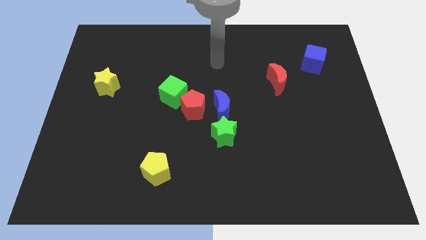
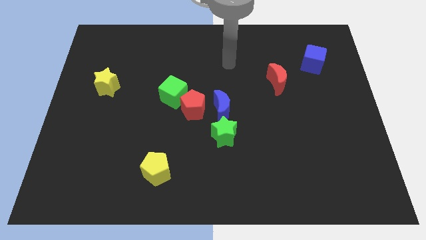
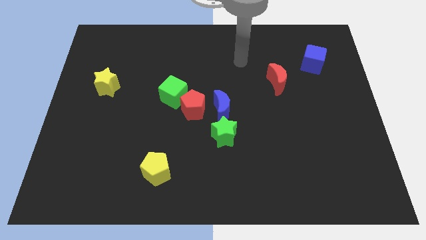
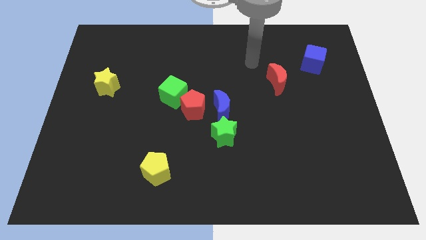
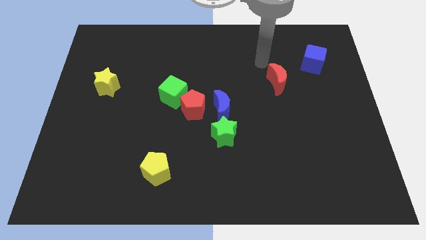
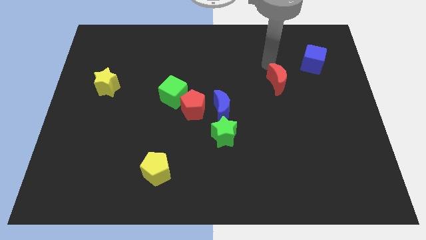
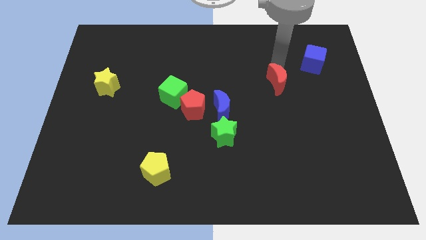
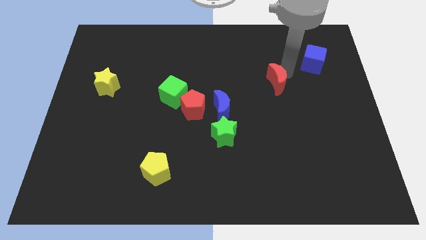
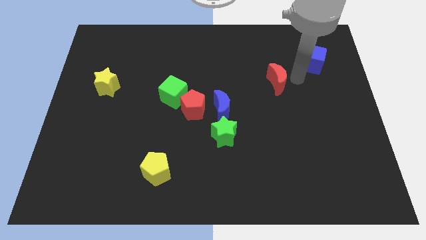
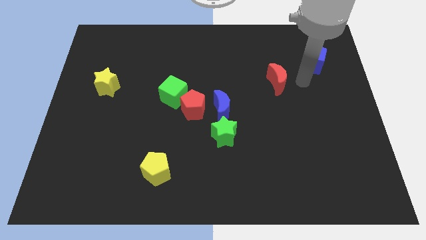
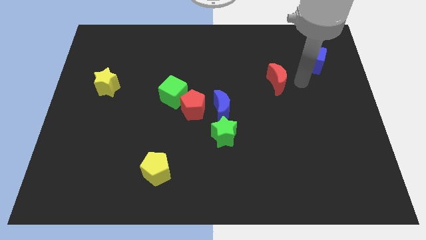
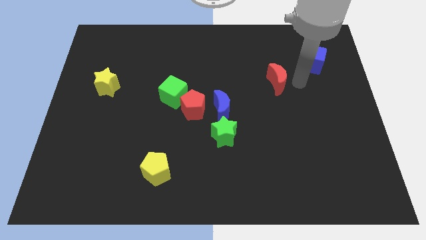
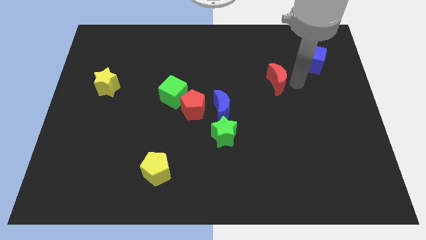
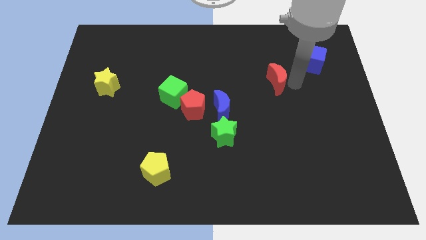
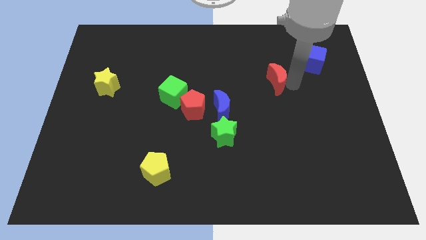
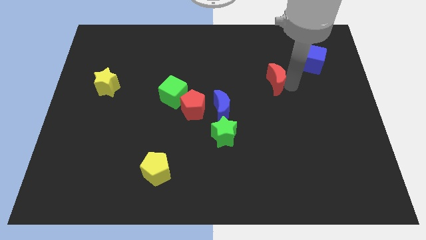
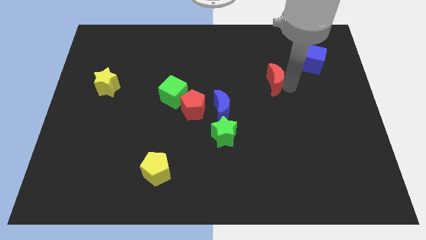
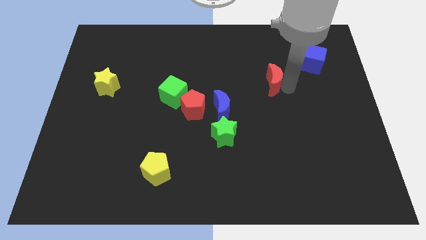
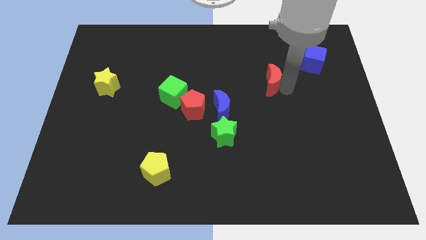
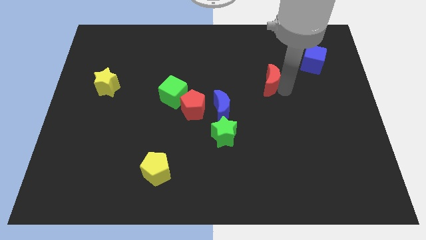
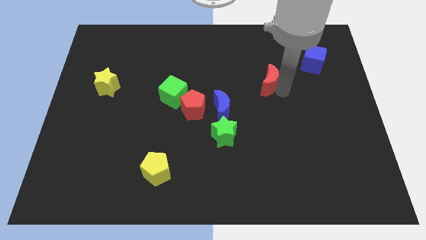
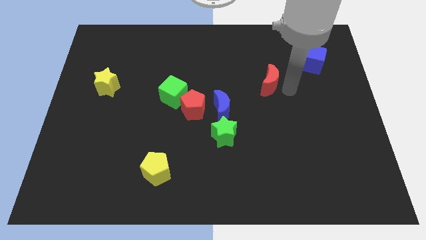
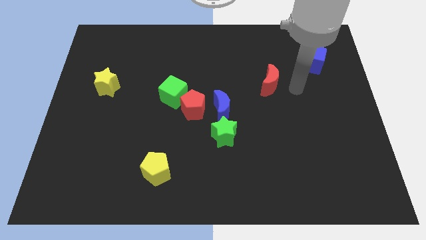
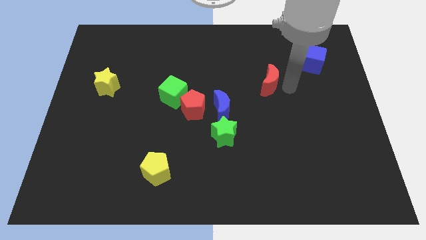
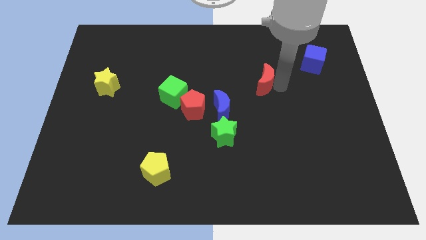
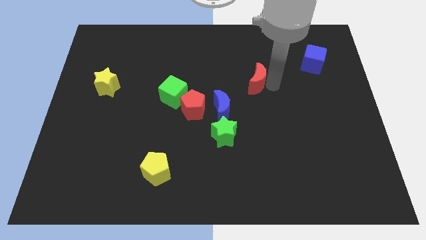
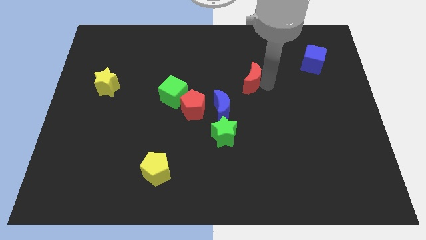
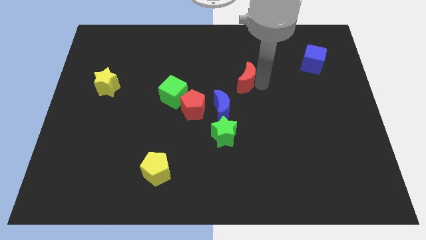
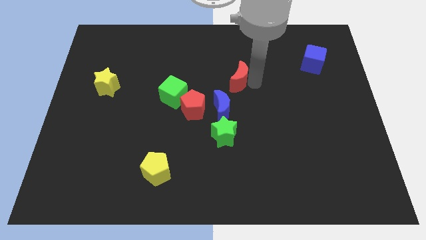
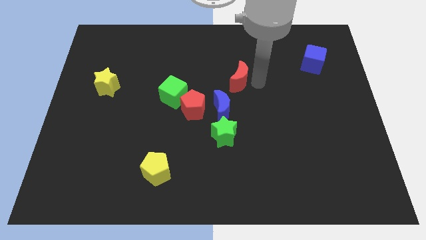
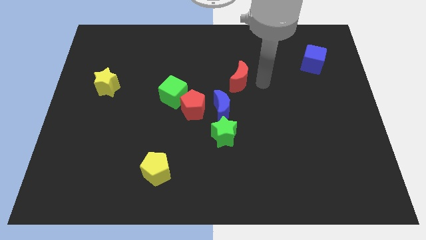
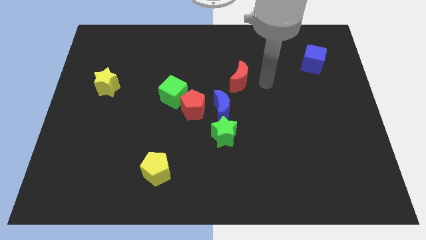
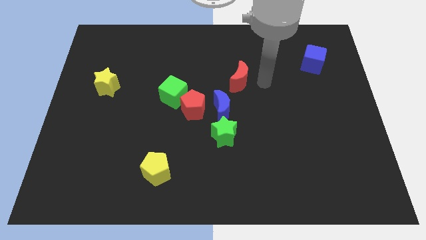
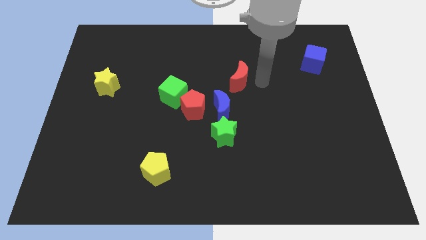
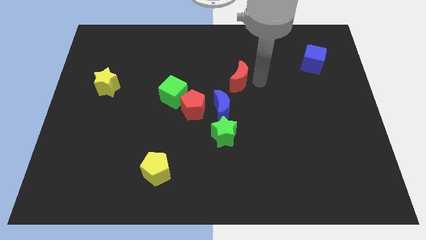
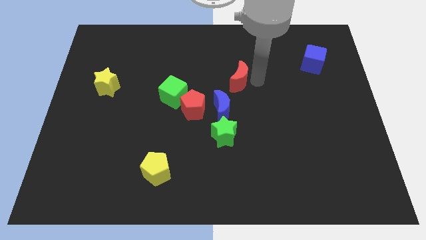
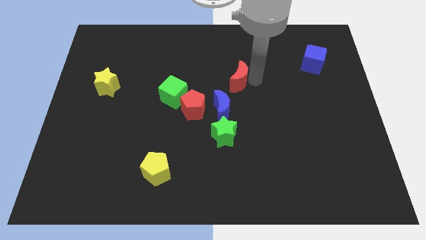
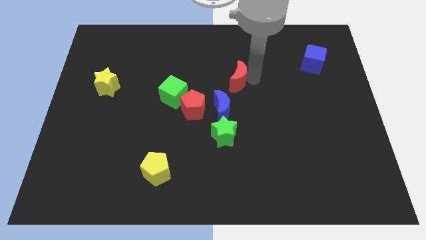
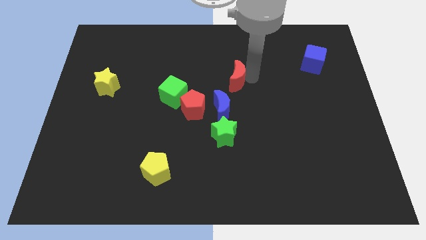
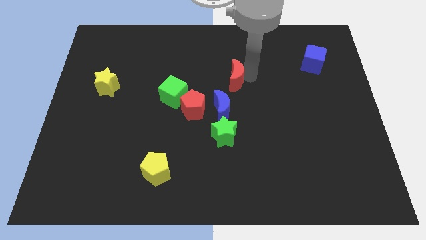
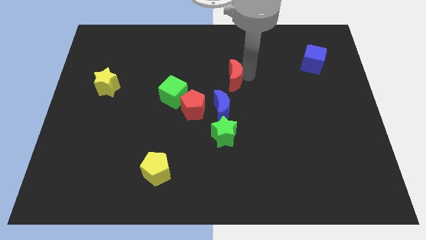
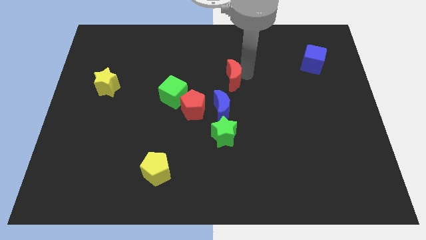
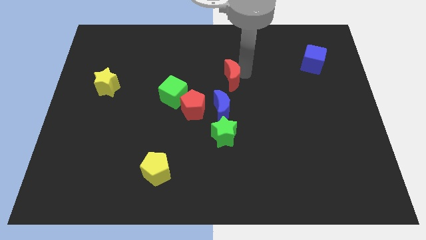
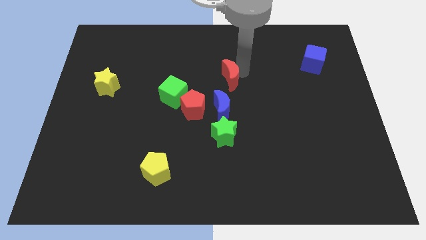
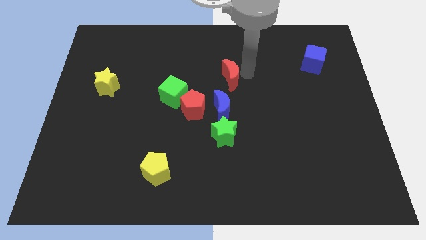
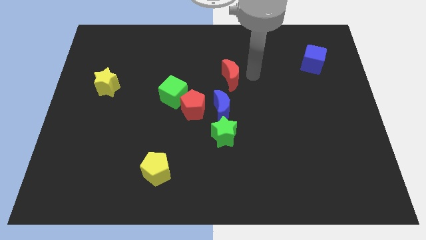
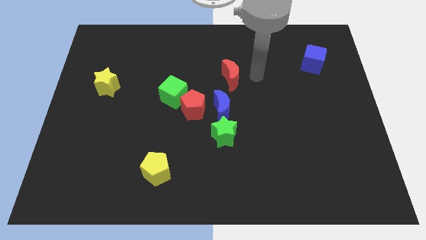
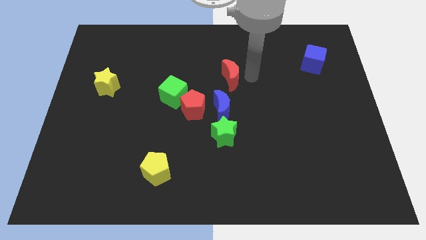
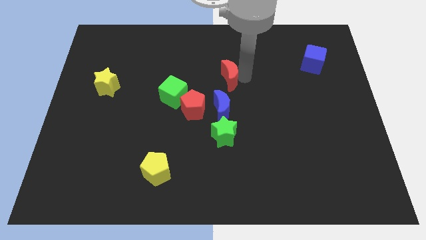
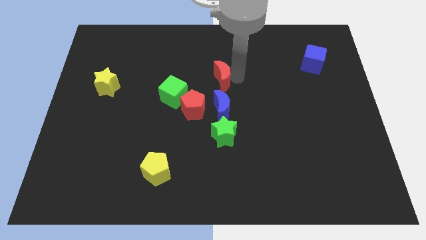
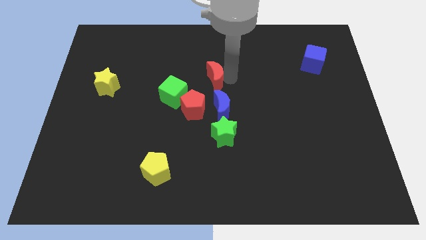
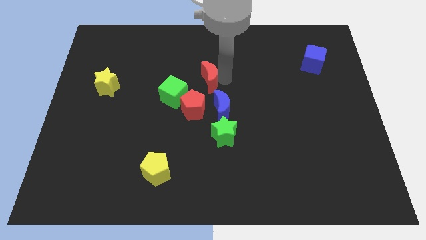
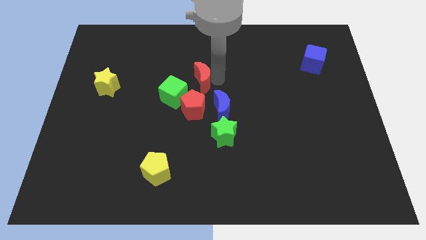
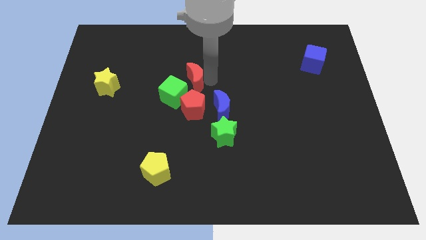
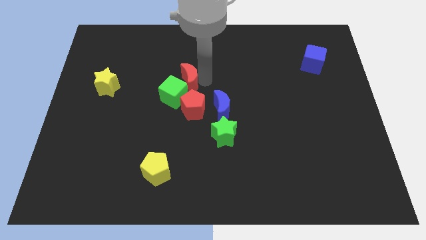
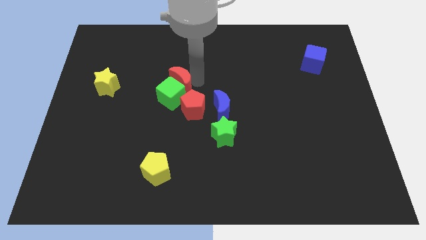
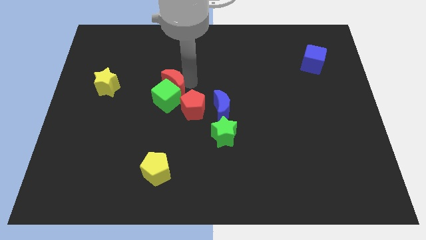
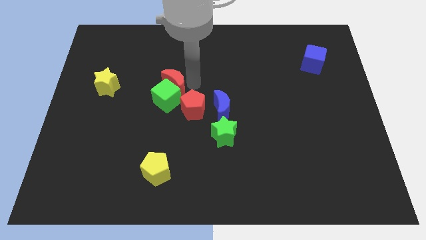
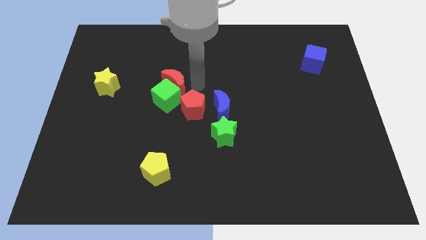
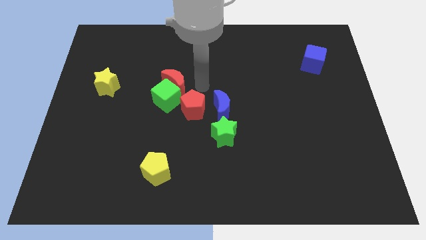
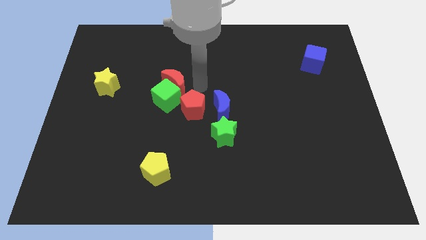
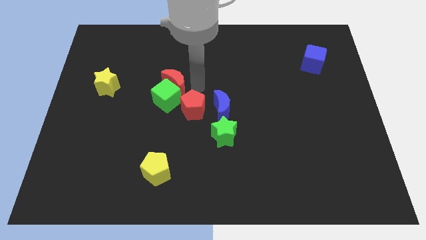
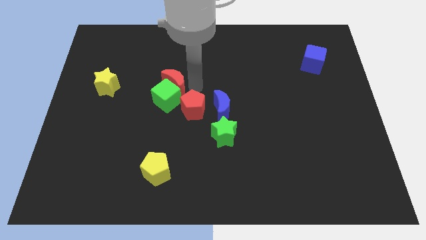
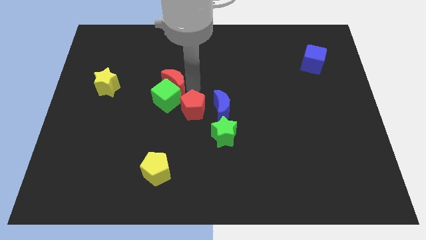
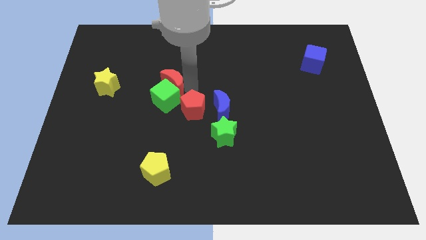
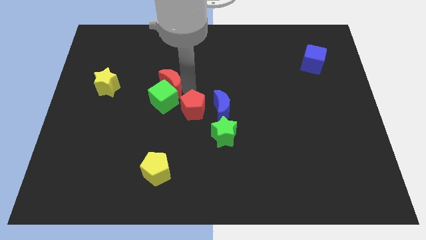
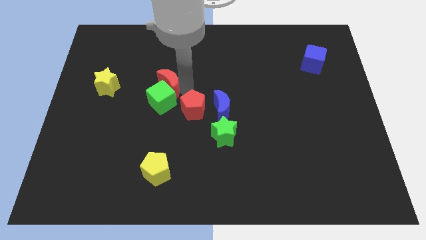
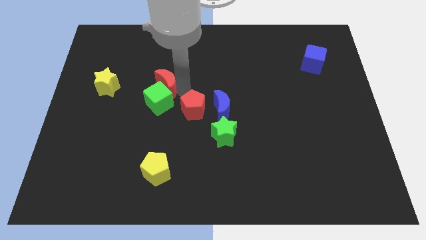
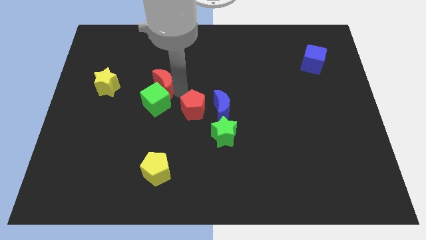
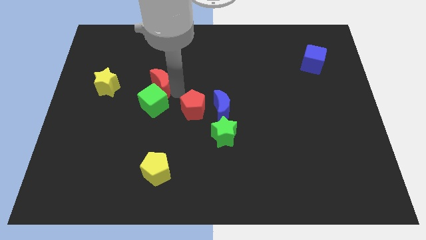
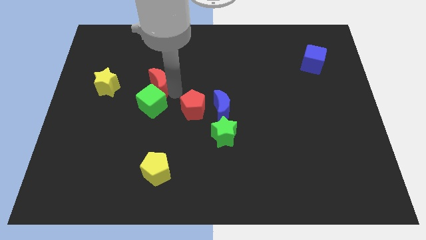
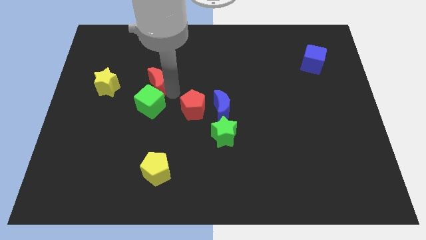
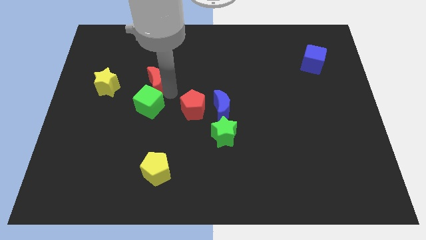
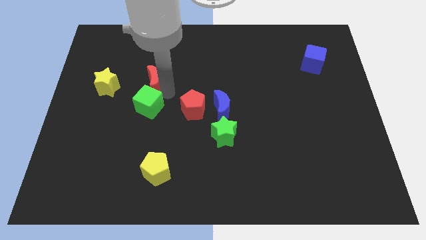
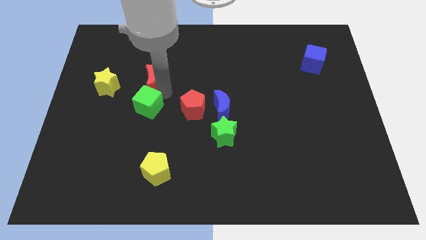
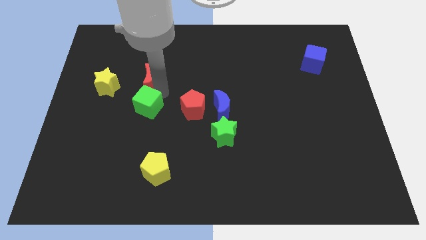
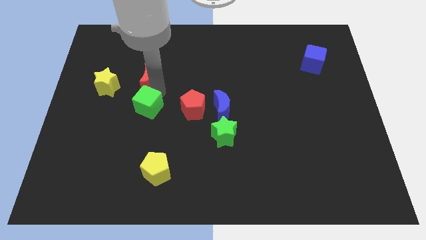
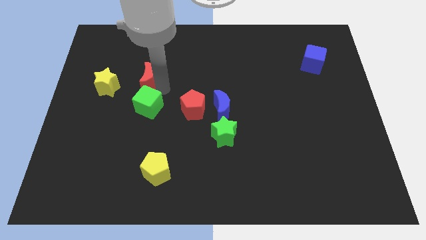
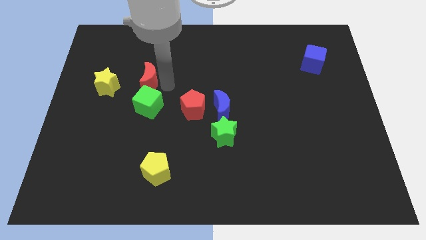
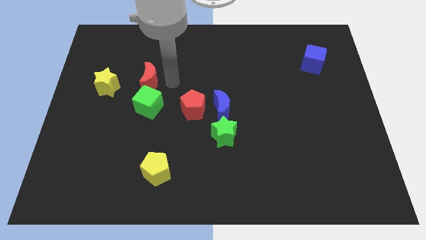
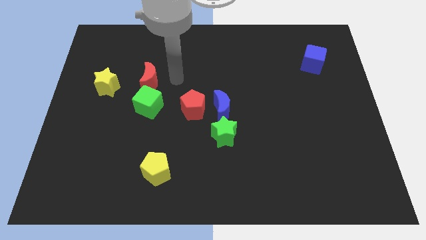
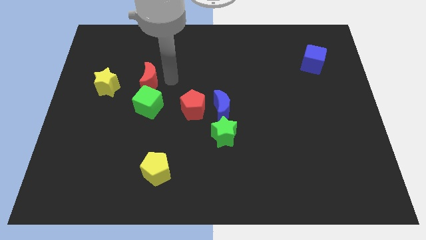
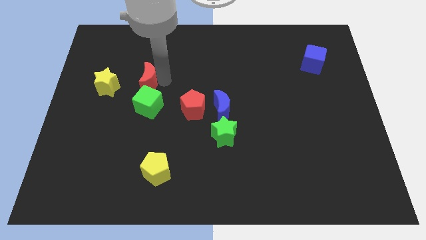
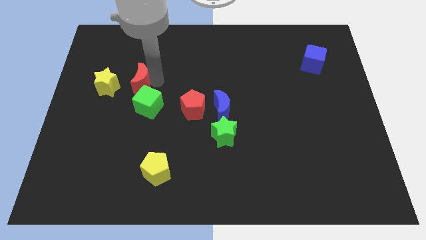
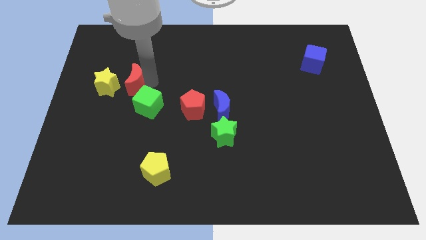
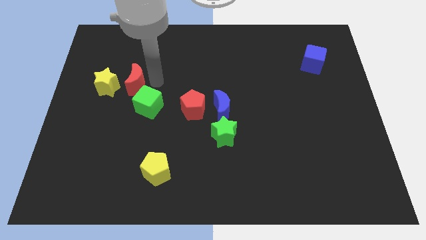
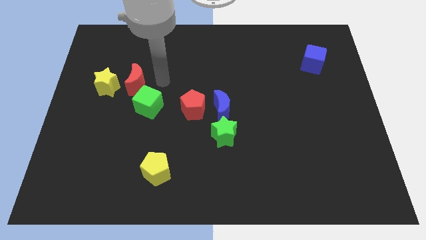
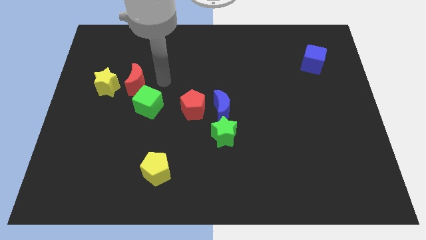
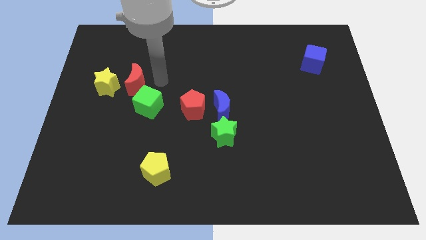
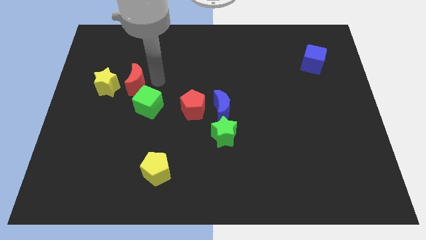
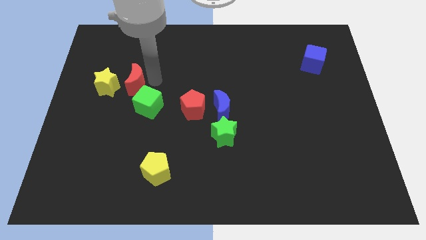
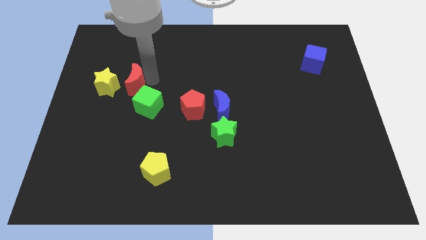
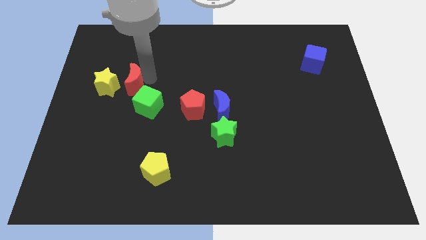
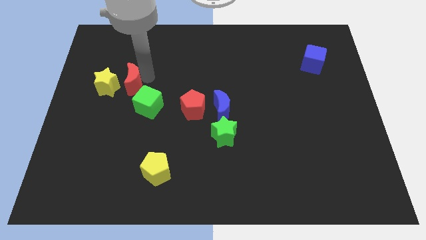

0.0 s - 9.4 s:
slide the red moon to the yellow star
